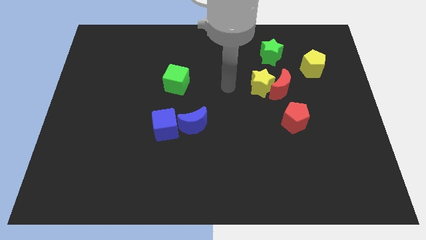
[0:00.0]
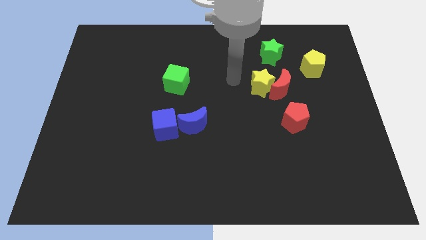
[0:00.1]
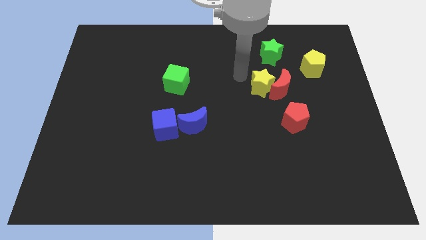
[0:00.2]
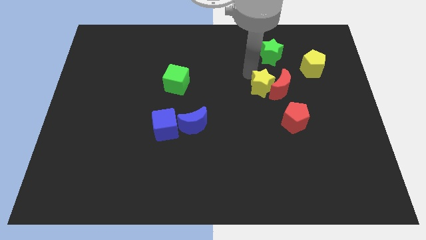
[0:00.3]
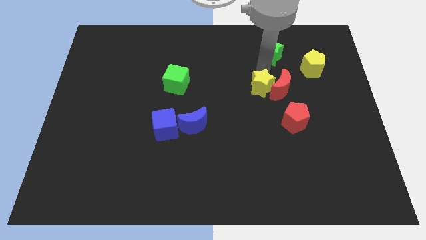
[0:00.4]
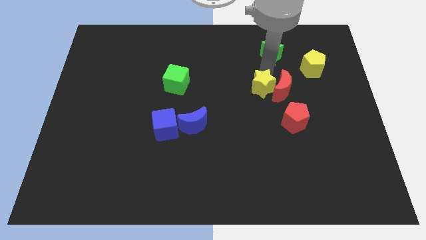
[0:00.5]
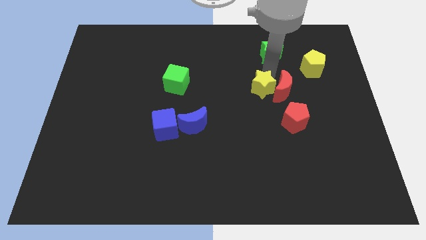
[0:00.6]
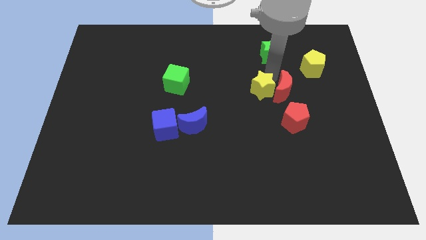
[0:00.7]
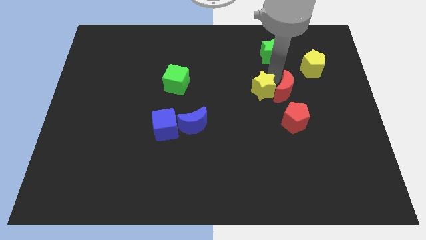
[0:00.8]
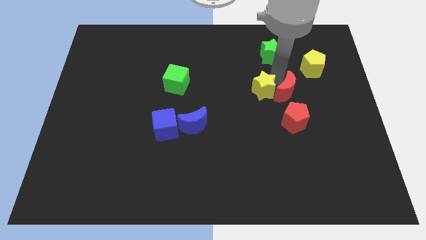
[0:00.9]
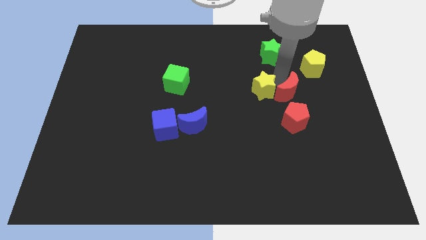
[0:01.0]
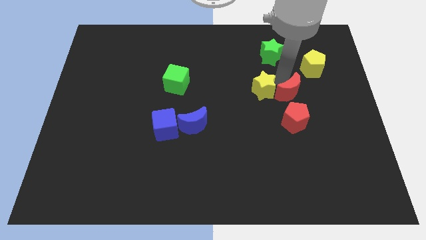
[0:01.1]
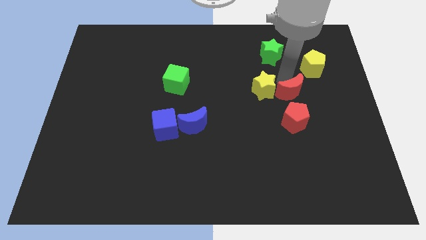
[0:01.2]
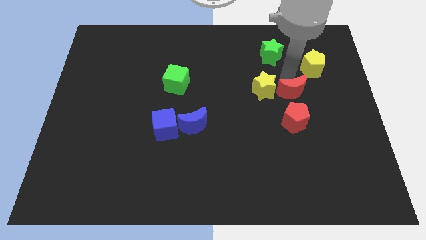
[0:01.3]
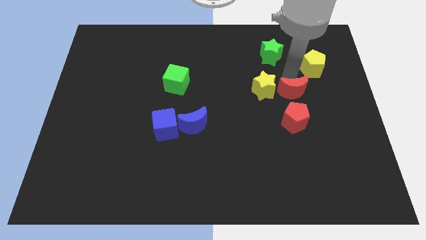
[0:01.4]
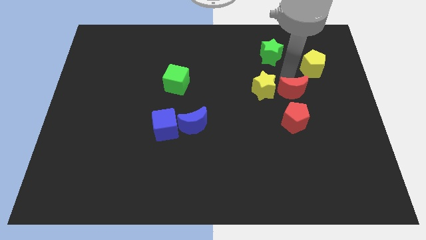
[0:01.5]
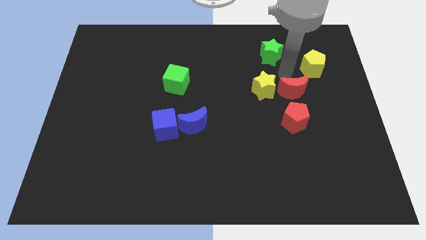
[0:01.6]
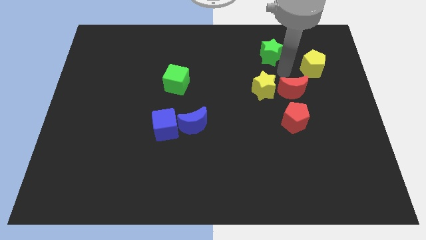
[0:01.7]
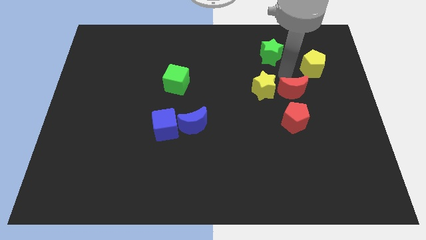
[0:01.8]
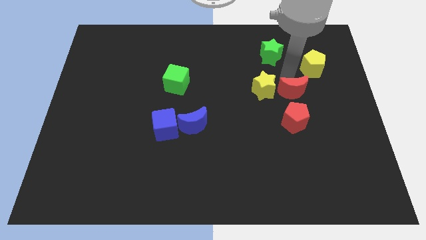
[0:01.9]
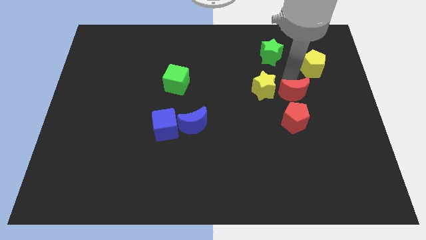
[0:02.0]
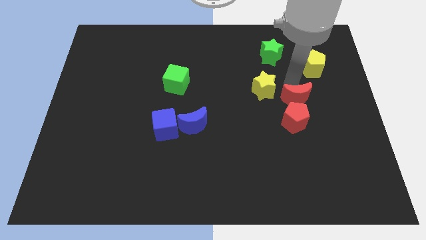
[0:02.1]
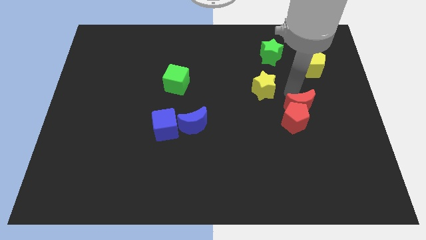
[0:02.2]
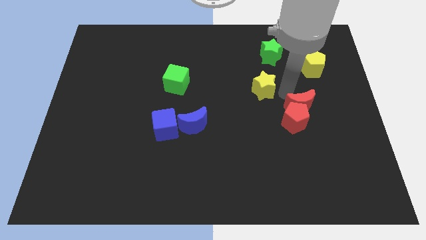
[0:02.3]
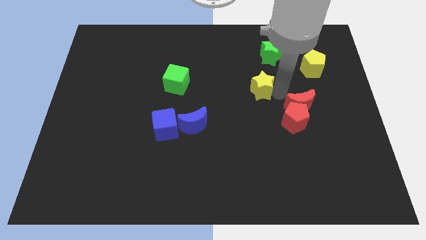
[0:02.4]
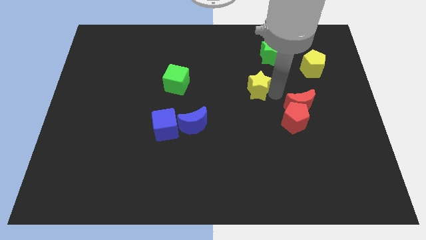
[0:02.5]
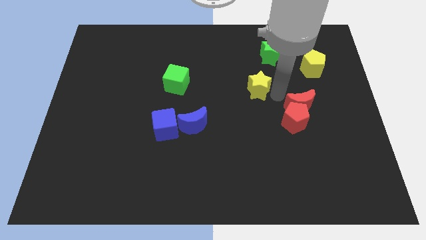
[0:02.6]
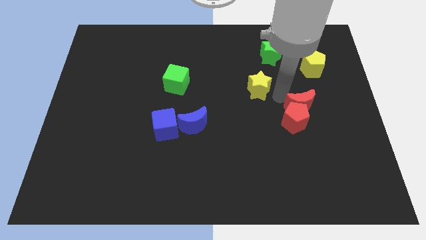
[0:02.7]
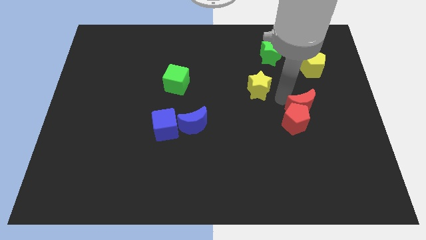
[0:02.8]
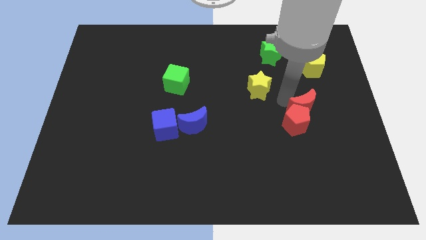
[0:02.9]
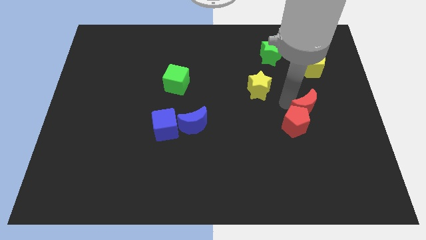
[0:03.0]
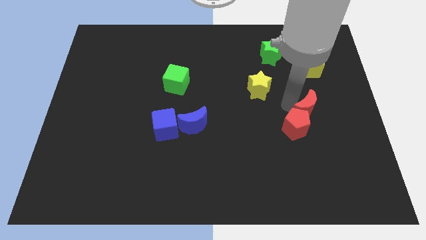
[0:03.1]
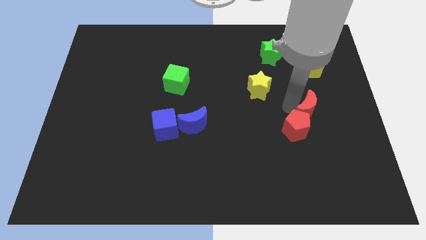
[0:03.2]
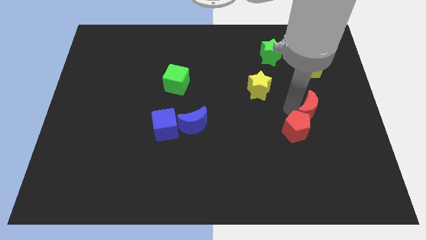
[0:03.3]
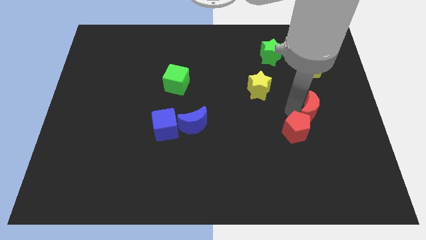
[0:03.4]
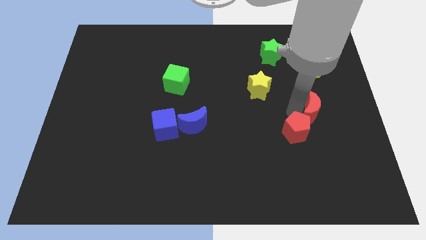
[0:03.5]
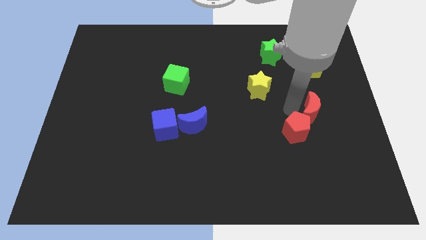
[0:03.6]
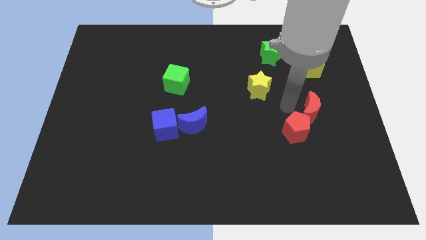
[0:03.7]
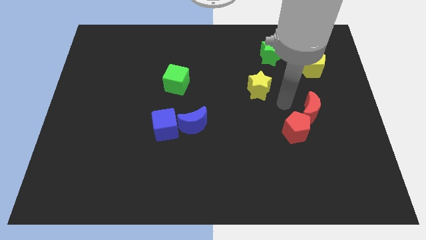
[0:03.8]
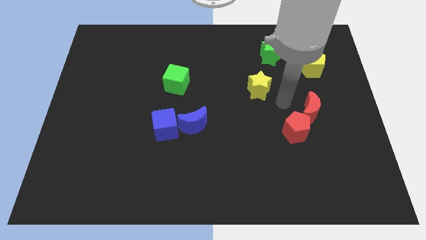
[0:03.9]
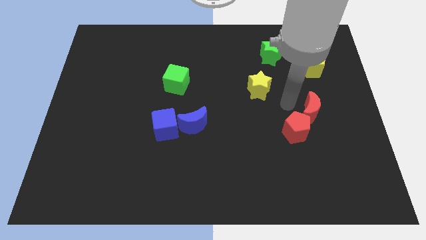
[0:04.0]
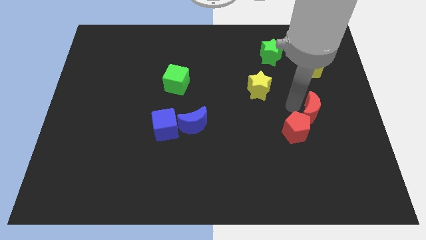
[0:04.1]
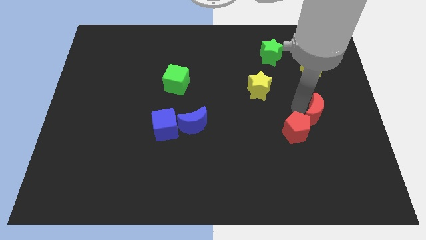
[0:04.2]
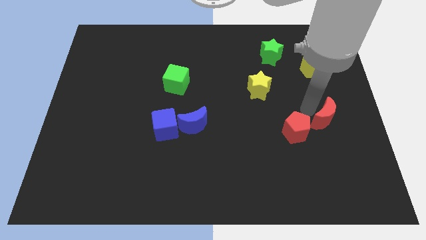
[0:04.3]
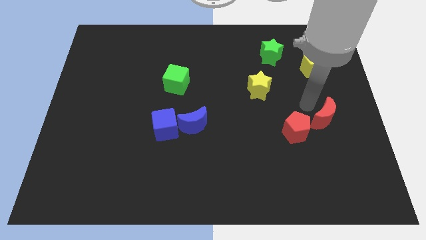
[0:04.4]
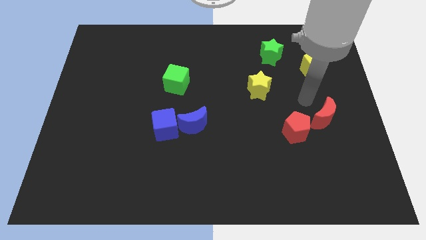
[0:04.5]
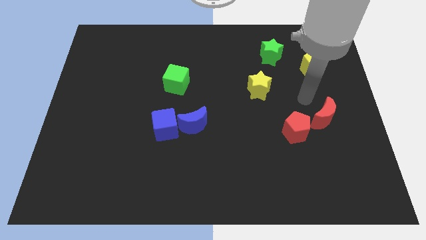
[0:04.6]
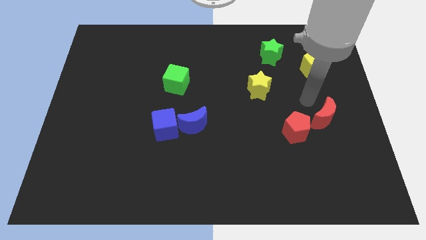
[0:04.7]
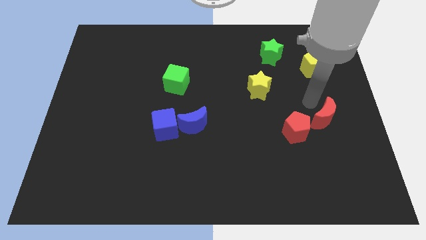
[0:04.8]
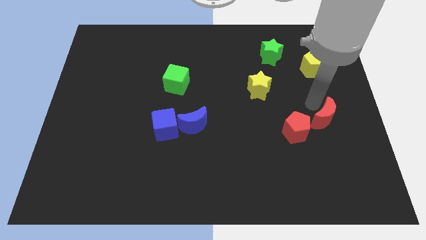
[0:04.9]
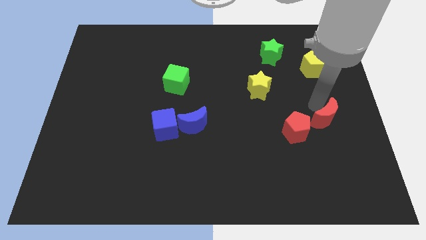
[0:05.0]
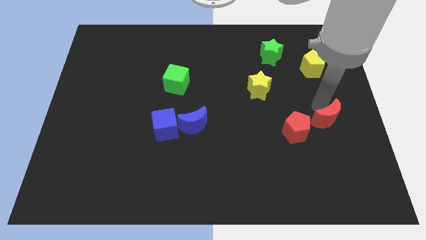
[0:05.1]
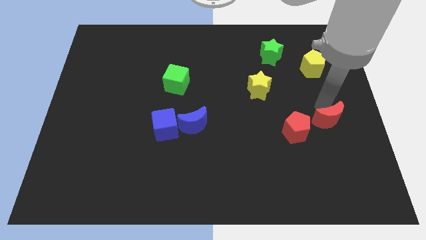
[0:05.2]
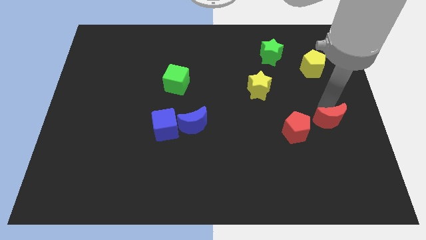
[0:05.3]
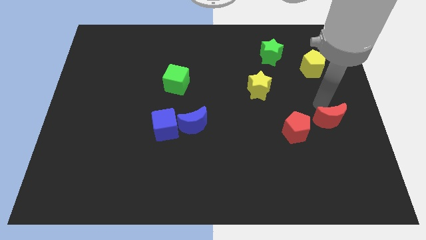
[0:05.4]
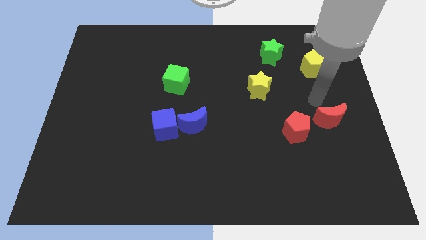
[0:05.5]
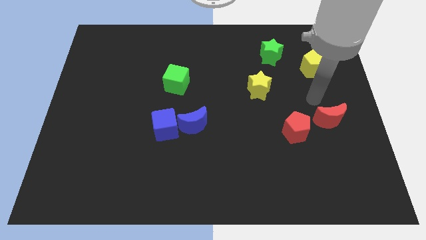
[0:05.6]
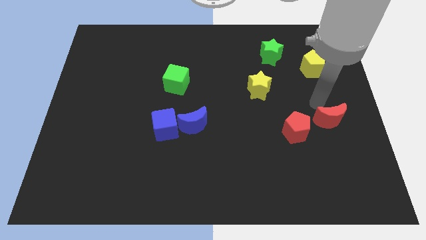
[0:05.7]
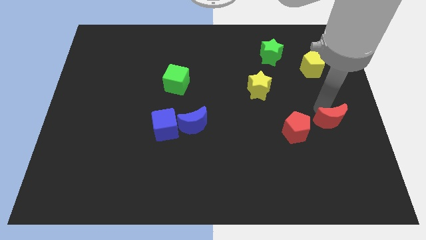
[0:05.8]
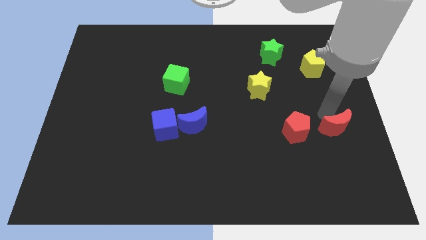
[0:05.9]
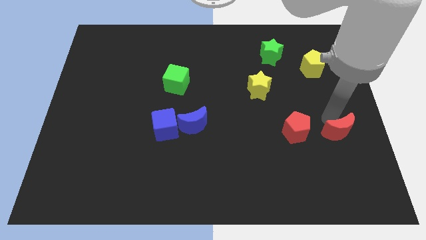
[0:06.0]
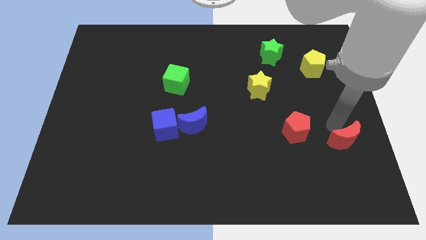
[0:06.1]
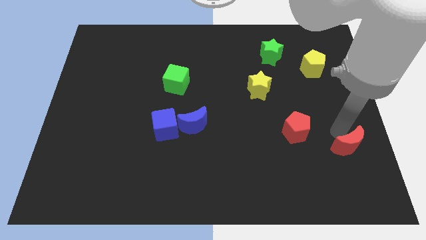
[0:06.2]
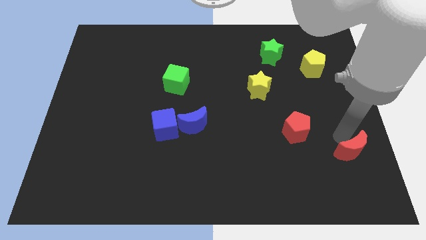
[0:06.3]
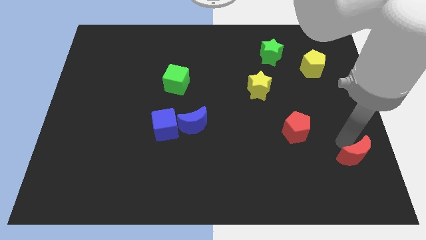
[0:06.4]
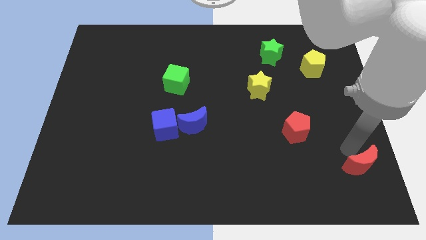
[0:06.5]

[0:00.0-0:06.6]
slide the red moon to the bottom right
